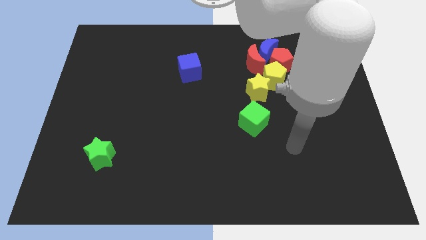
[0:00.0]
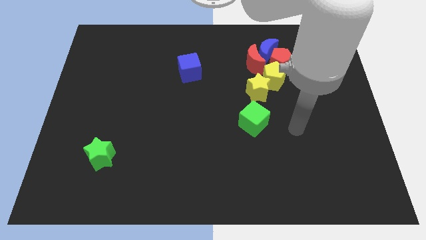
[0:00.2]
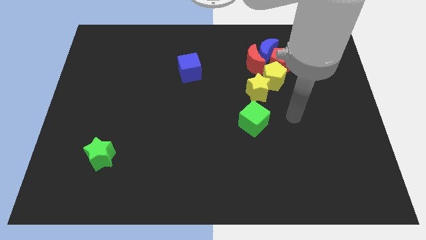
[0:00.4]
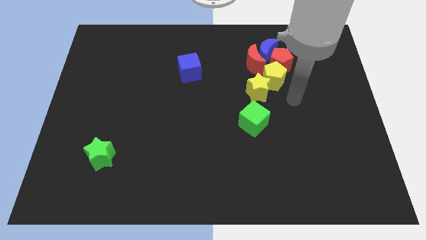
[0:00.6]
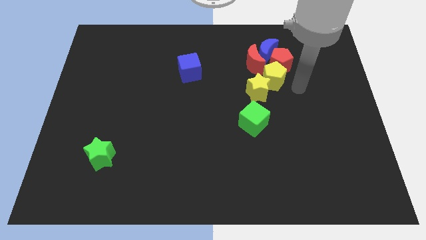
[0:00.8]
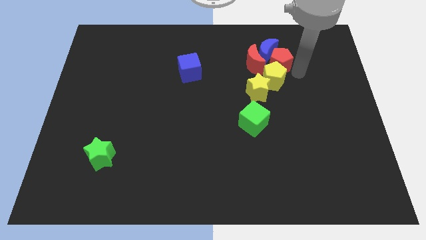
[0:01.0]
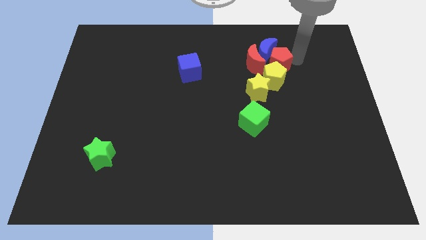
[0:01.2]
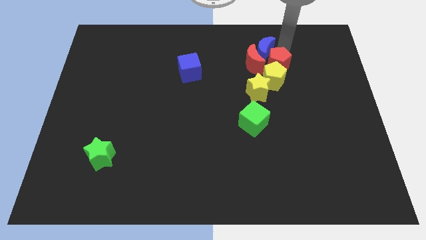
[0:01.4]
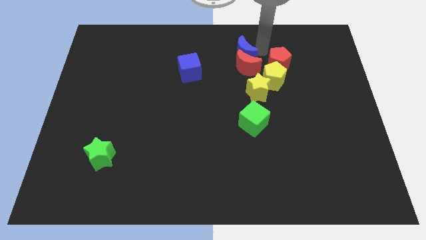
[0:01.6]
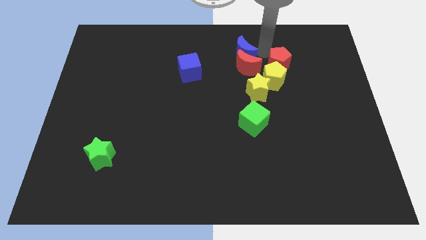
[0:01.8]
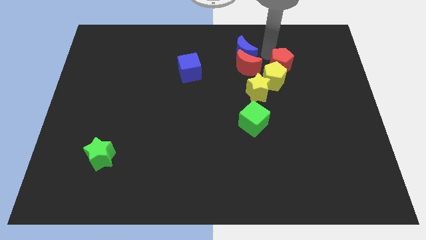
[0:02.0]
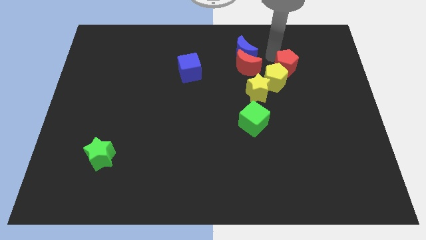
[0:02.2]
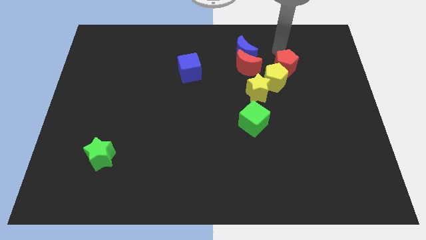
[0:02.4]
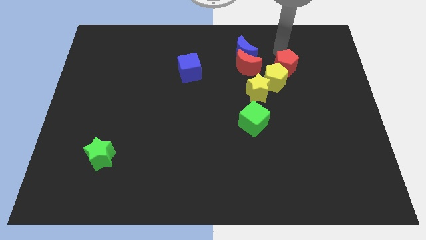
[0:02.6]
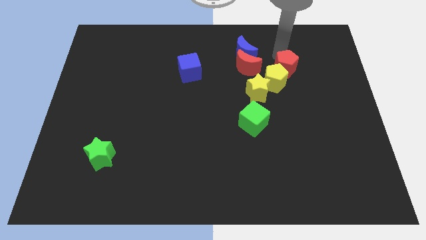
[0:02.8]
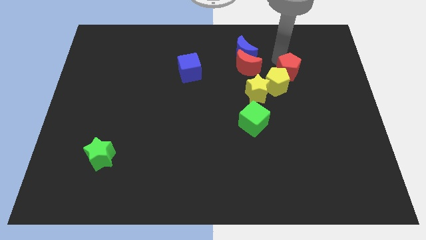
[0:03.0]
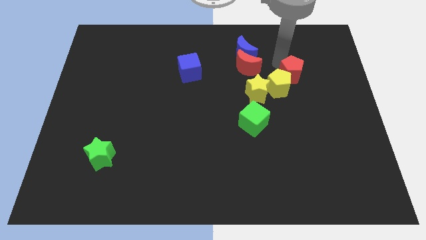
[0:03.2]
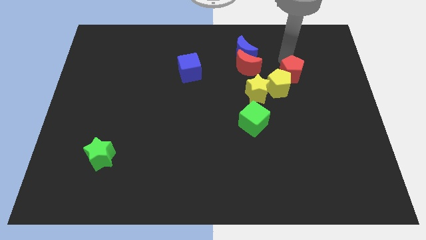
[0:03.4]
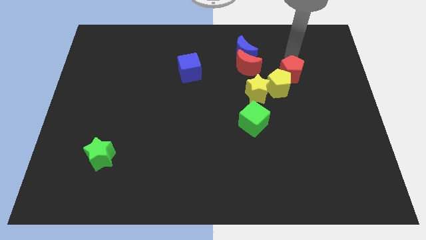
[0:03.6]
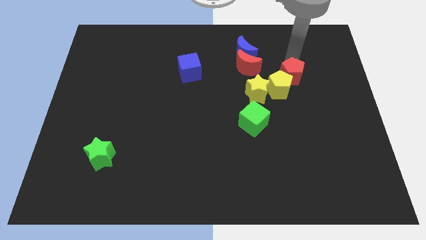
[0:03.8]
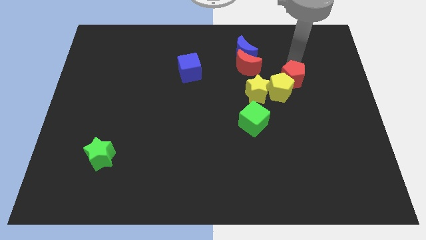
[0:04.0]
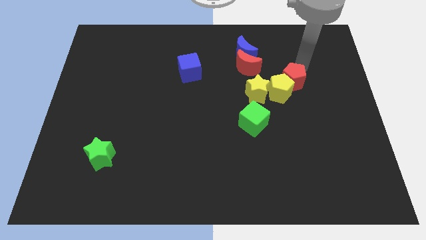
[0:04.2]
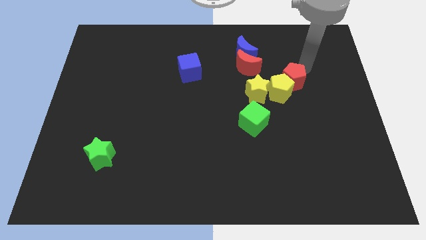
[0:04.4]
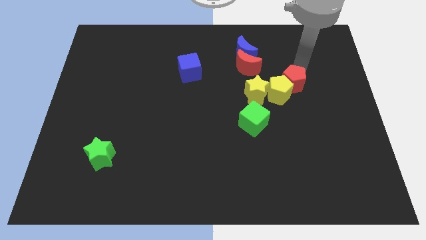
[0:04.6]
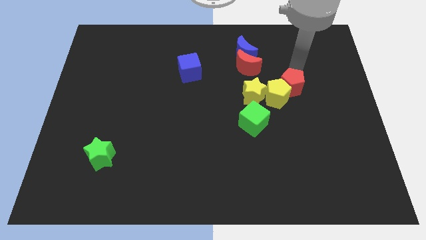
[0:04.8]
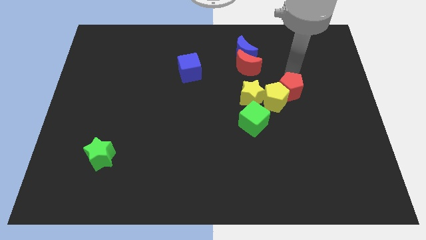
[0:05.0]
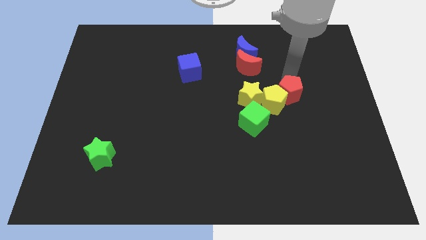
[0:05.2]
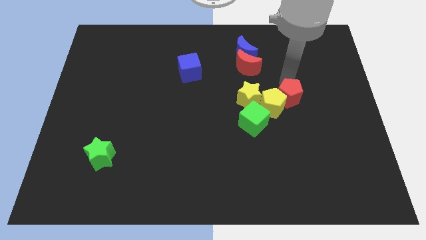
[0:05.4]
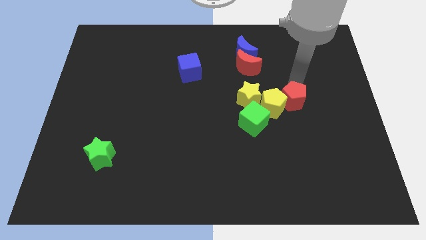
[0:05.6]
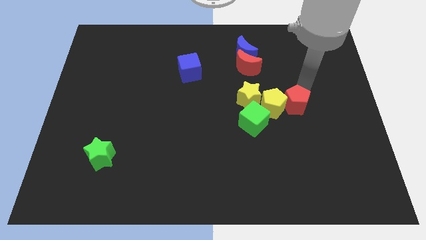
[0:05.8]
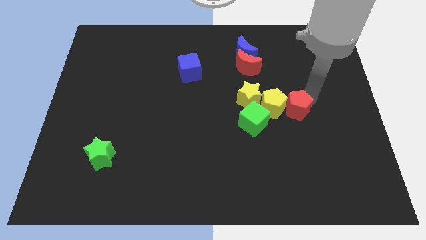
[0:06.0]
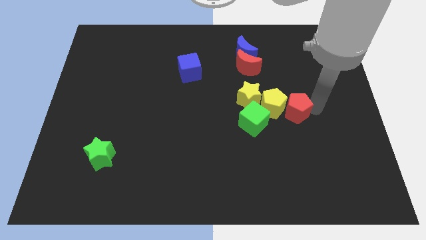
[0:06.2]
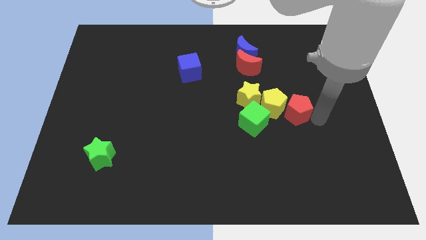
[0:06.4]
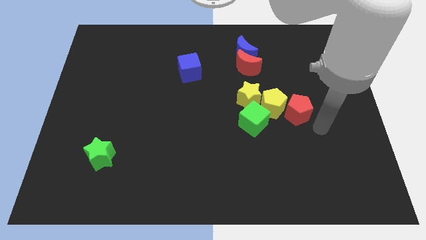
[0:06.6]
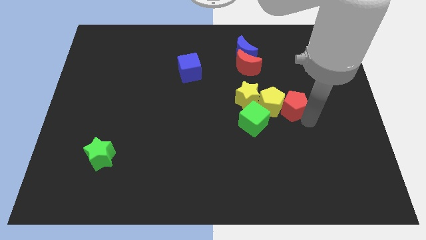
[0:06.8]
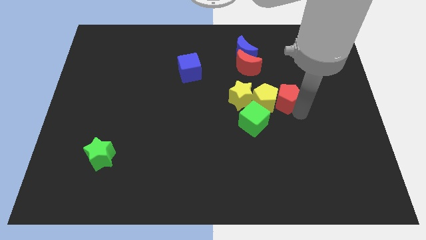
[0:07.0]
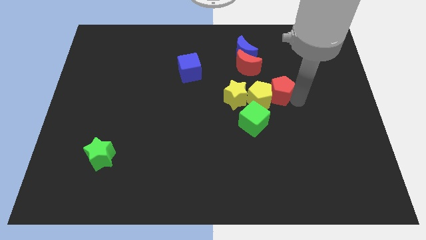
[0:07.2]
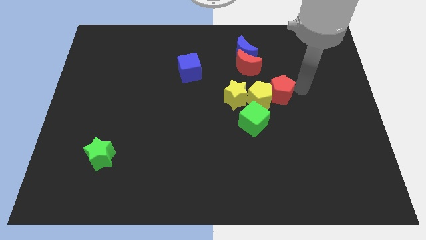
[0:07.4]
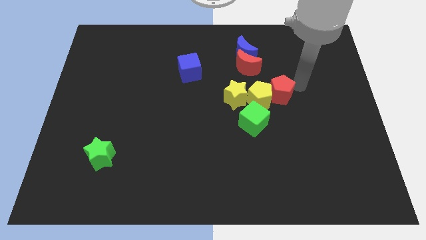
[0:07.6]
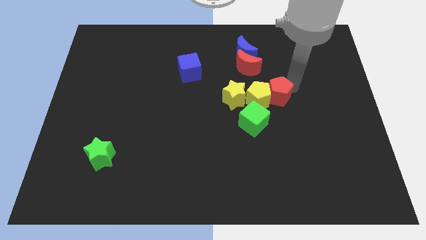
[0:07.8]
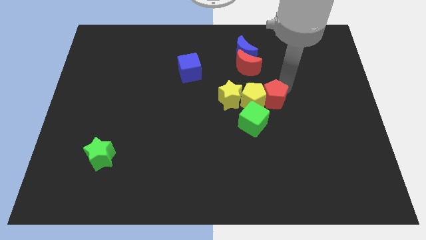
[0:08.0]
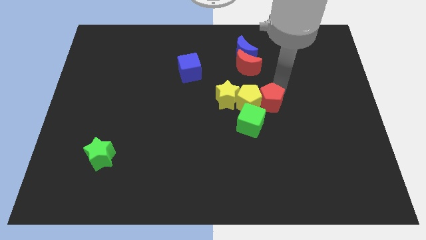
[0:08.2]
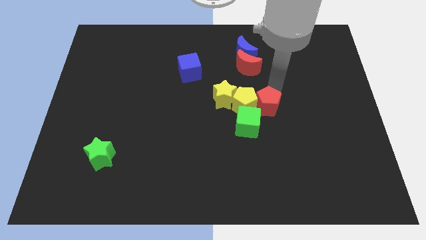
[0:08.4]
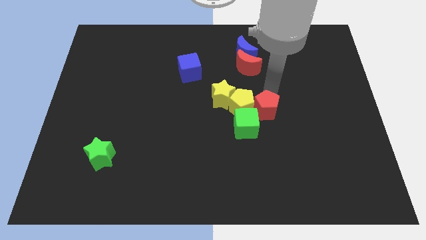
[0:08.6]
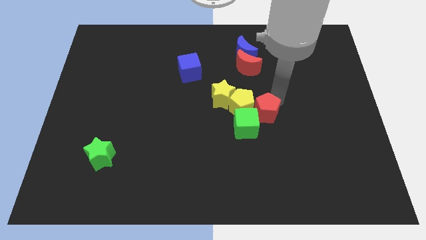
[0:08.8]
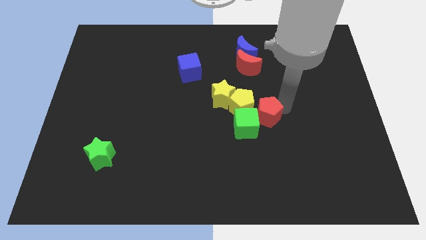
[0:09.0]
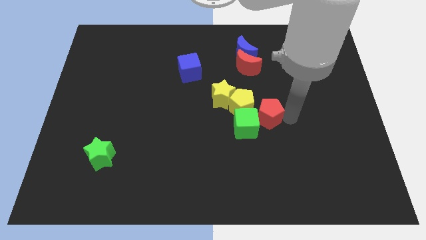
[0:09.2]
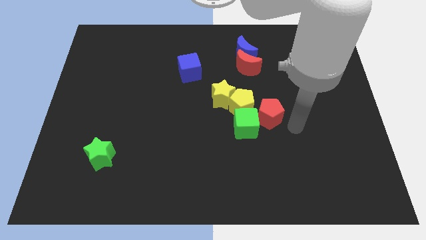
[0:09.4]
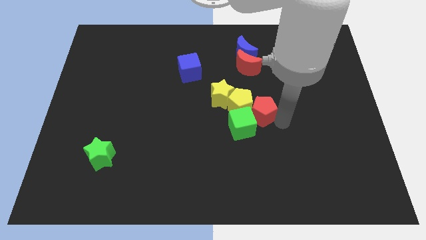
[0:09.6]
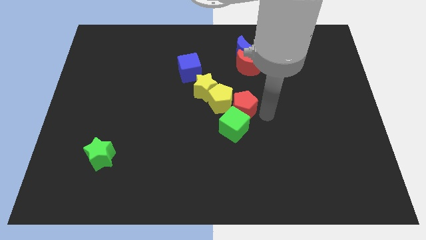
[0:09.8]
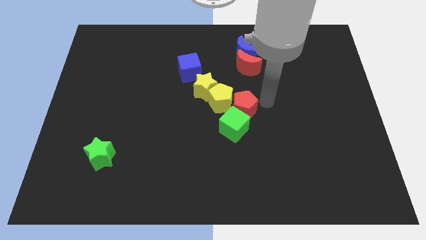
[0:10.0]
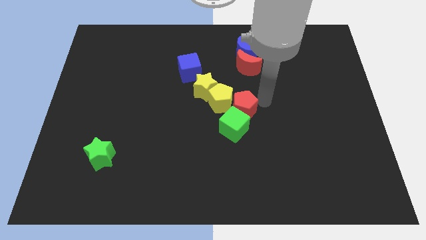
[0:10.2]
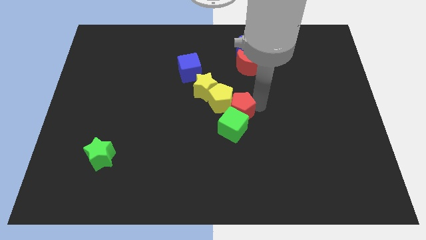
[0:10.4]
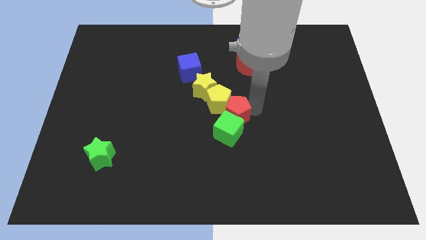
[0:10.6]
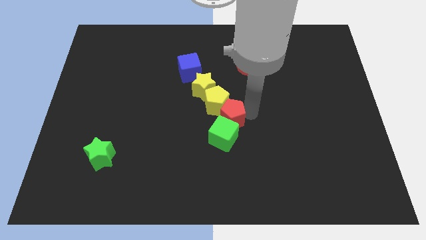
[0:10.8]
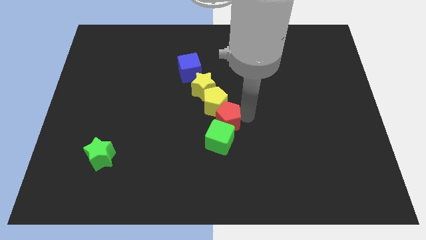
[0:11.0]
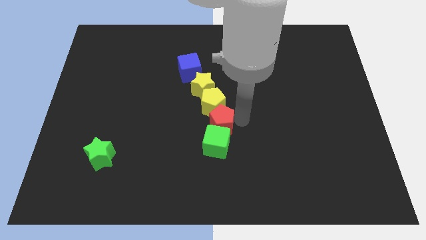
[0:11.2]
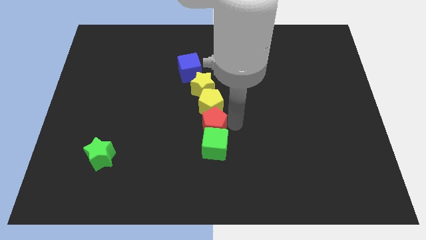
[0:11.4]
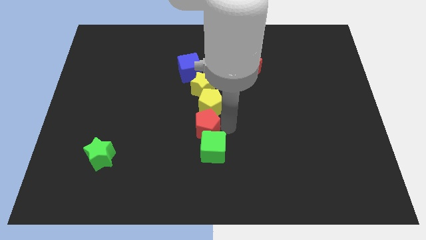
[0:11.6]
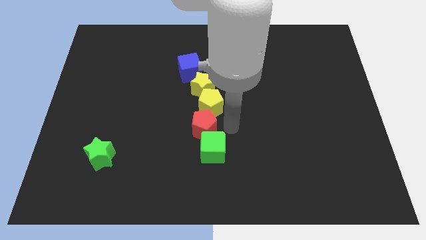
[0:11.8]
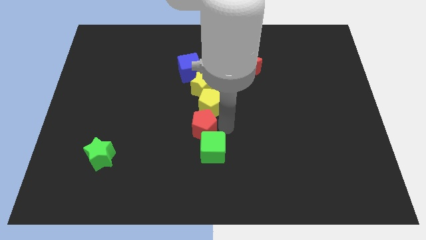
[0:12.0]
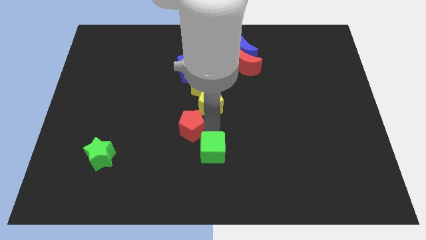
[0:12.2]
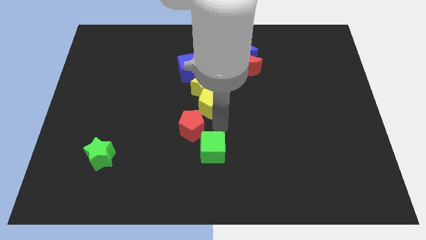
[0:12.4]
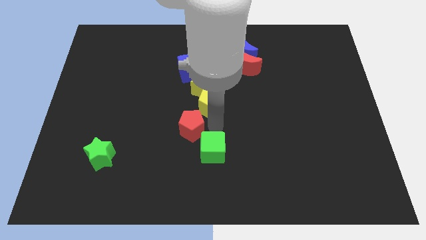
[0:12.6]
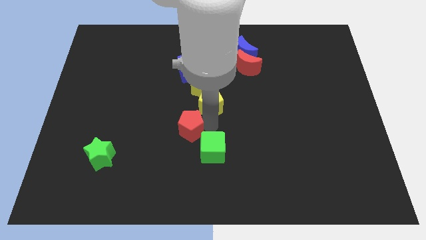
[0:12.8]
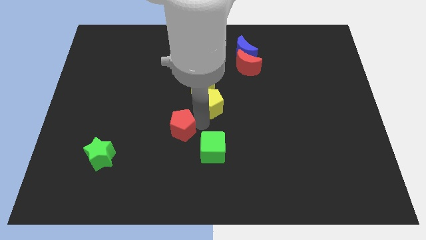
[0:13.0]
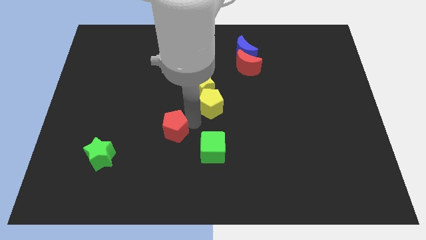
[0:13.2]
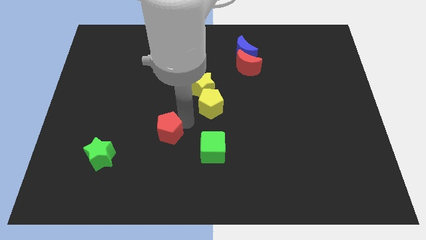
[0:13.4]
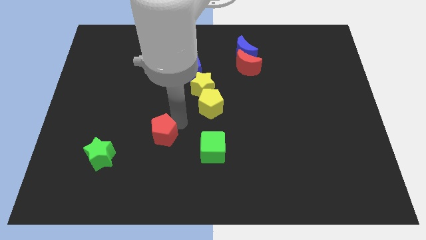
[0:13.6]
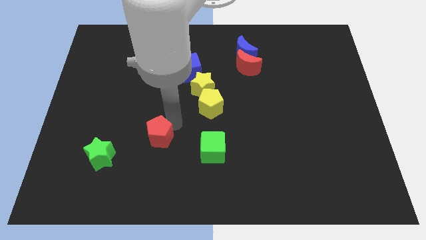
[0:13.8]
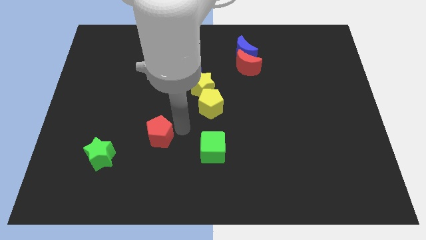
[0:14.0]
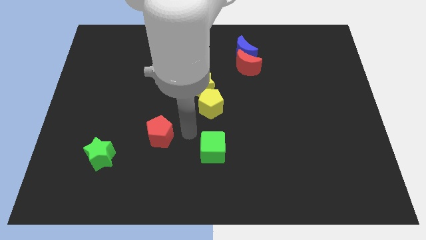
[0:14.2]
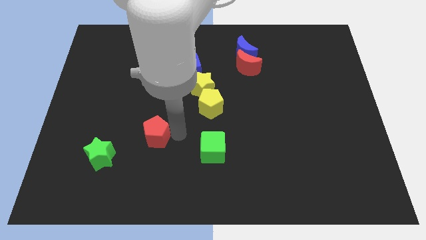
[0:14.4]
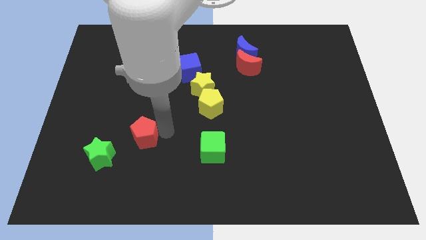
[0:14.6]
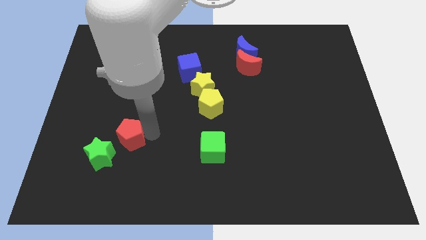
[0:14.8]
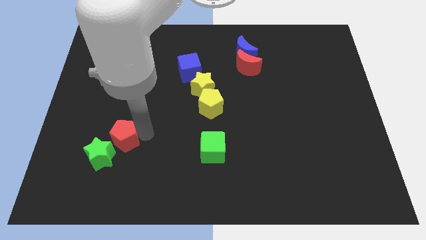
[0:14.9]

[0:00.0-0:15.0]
put the red pentagon towards the green star
